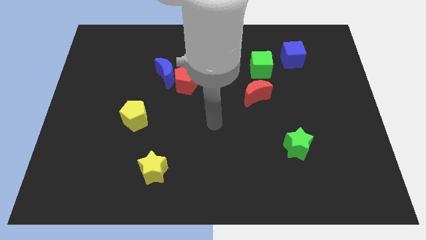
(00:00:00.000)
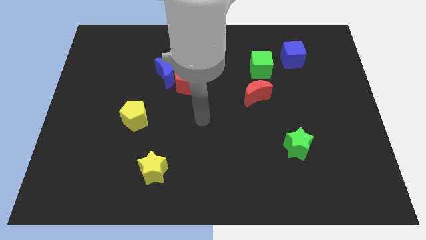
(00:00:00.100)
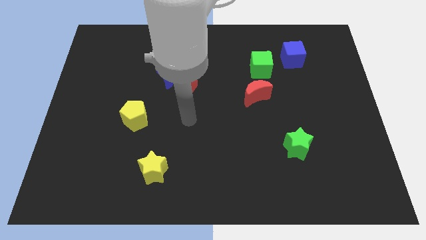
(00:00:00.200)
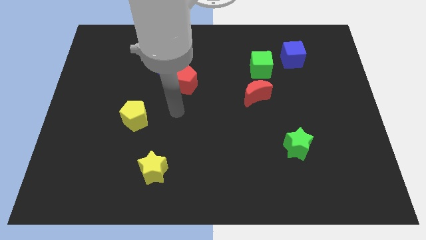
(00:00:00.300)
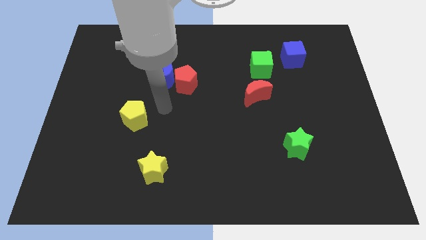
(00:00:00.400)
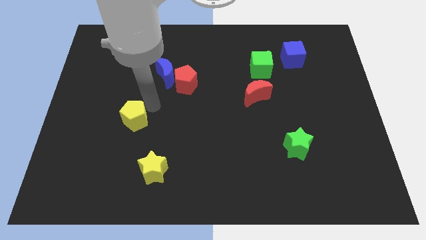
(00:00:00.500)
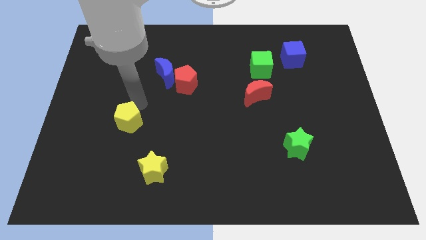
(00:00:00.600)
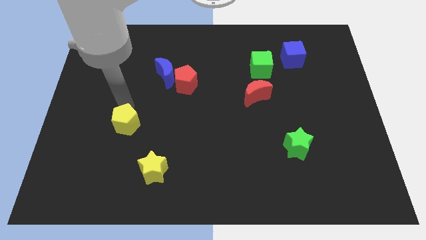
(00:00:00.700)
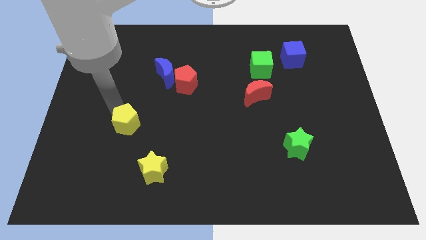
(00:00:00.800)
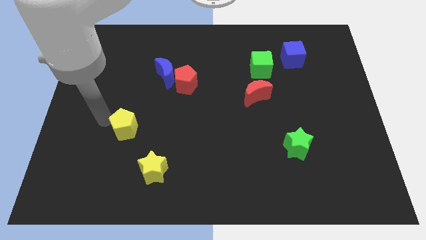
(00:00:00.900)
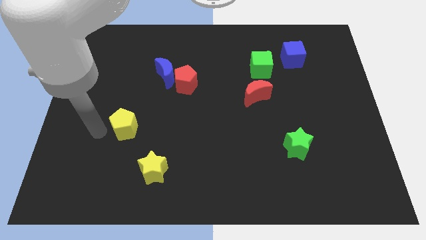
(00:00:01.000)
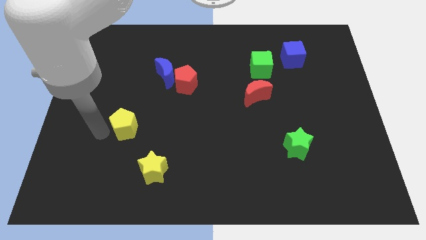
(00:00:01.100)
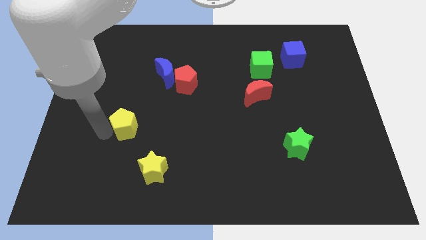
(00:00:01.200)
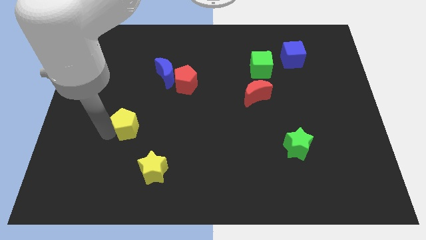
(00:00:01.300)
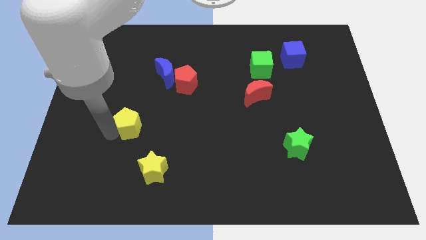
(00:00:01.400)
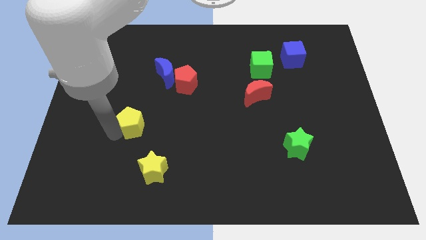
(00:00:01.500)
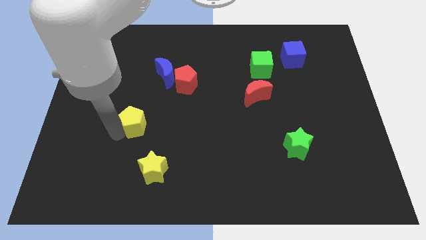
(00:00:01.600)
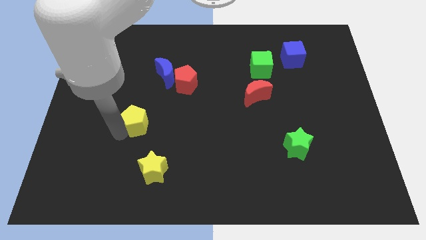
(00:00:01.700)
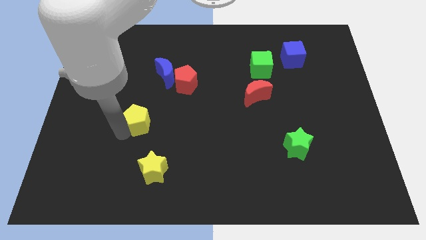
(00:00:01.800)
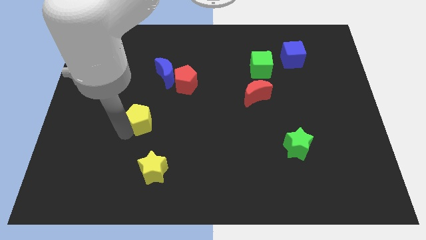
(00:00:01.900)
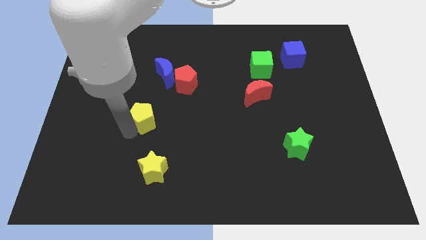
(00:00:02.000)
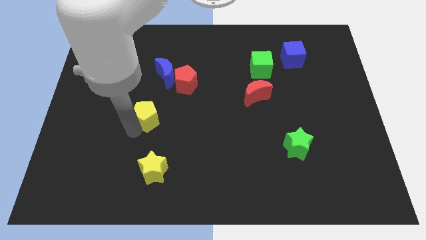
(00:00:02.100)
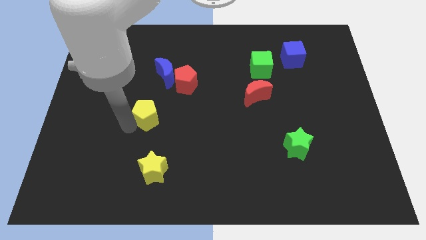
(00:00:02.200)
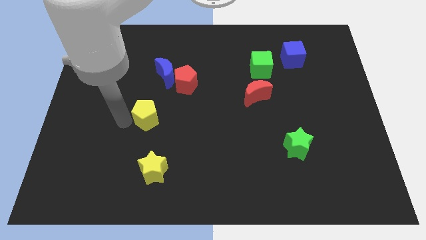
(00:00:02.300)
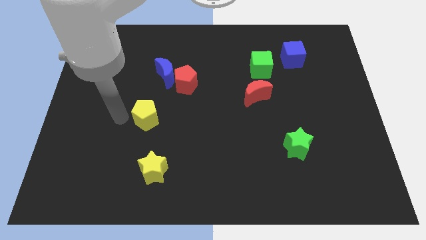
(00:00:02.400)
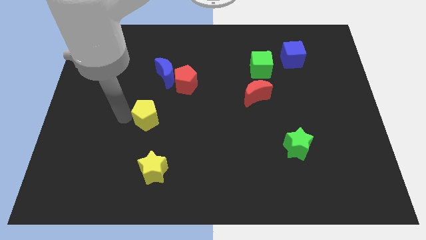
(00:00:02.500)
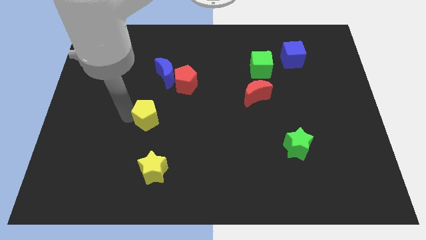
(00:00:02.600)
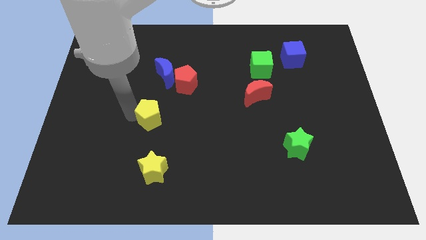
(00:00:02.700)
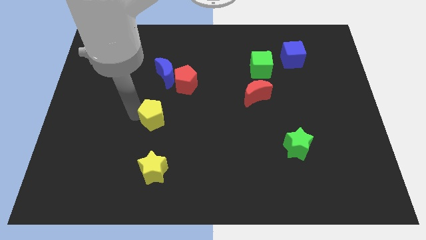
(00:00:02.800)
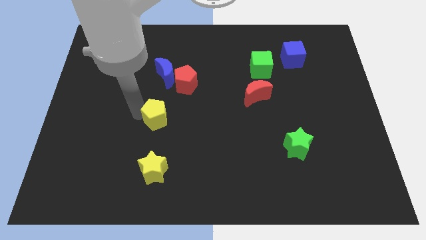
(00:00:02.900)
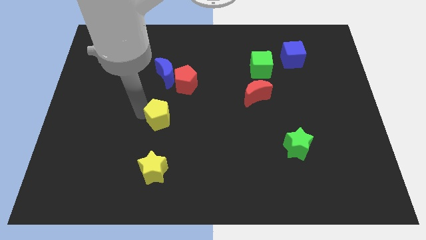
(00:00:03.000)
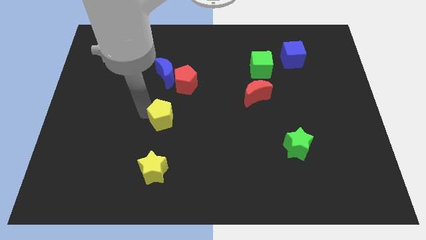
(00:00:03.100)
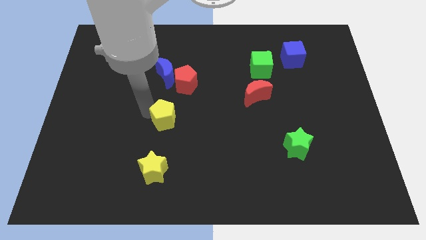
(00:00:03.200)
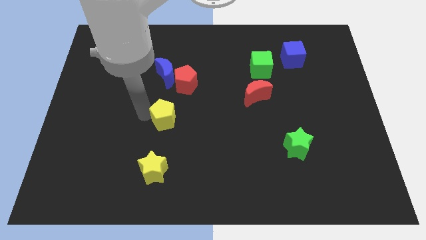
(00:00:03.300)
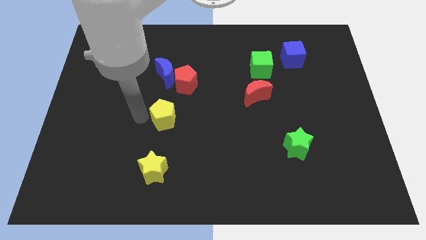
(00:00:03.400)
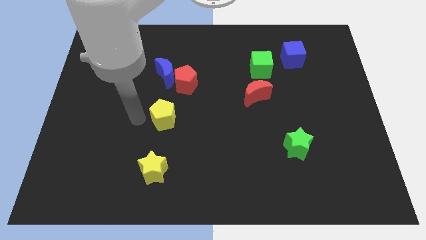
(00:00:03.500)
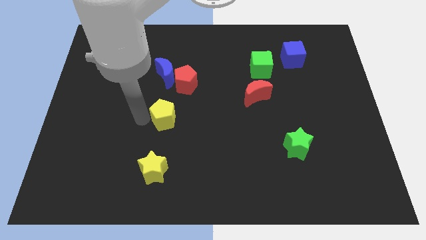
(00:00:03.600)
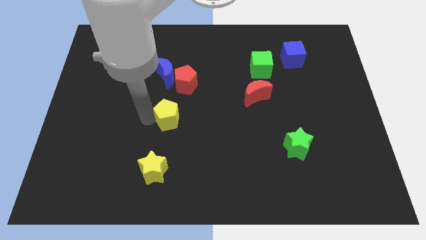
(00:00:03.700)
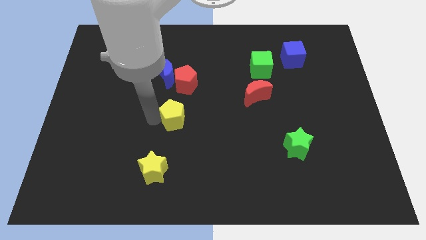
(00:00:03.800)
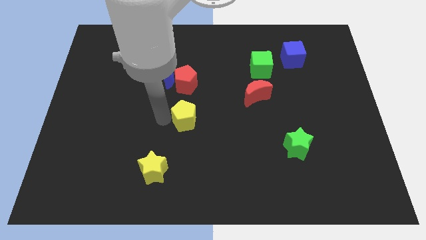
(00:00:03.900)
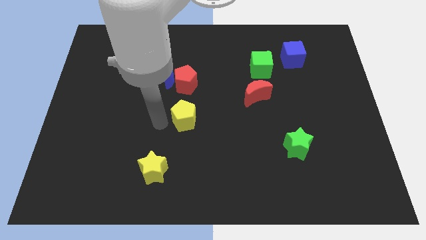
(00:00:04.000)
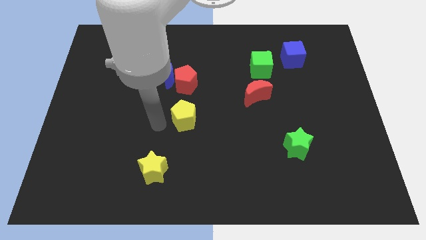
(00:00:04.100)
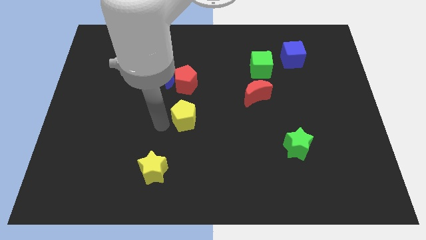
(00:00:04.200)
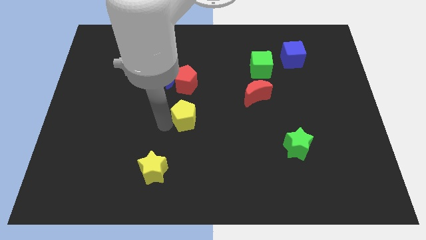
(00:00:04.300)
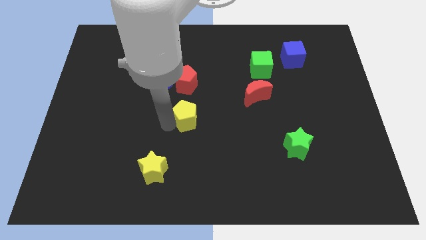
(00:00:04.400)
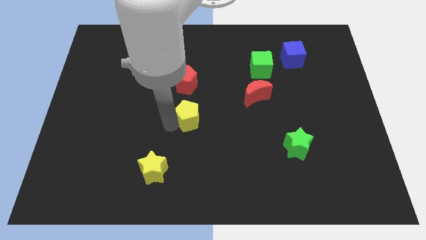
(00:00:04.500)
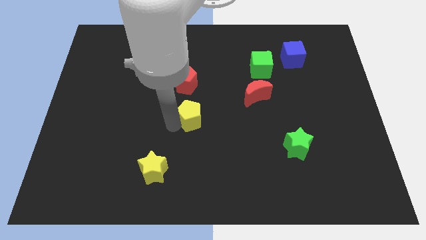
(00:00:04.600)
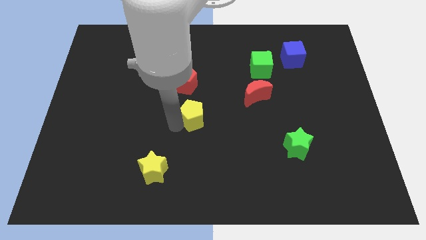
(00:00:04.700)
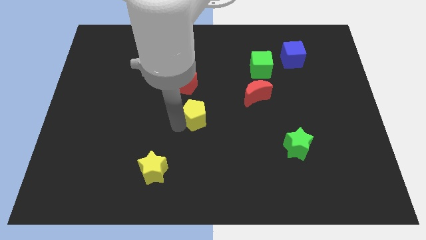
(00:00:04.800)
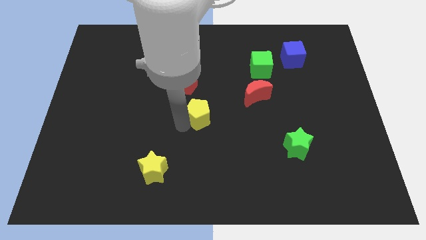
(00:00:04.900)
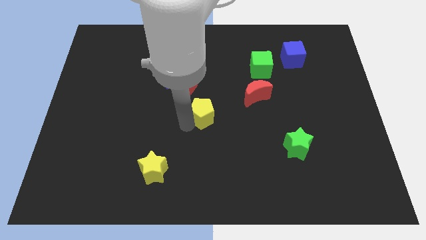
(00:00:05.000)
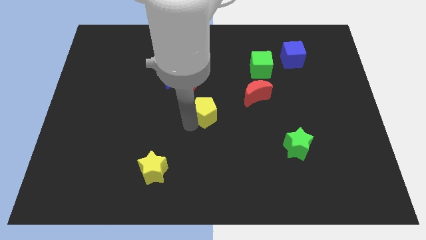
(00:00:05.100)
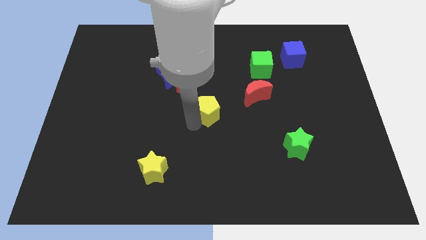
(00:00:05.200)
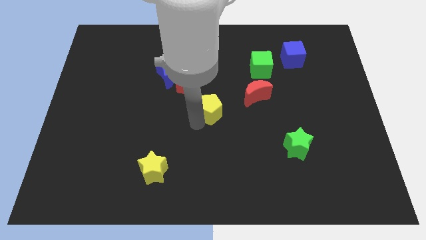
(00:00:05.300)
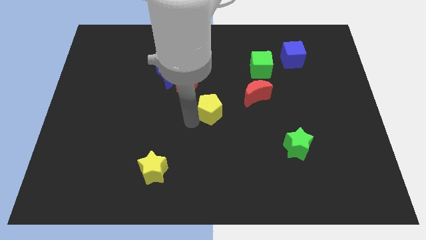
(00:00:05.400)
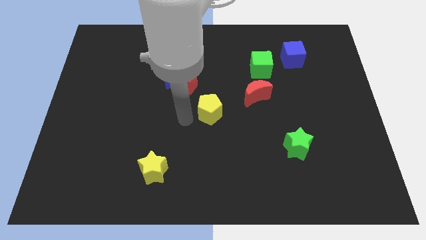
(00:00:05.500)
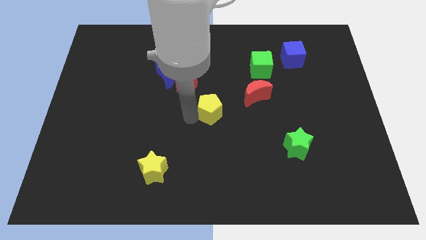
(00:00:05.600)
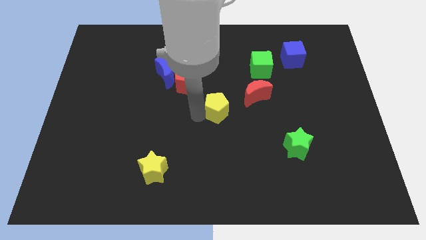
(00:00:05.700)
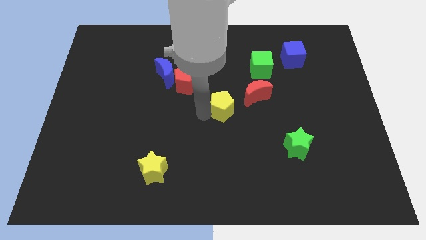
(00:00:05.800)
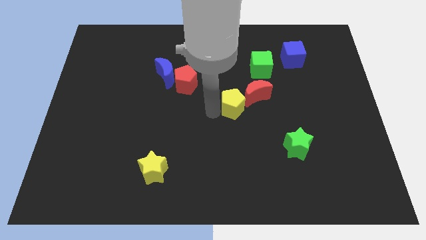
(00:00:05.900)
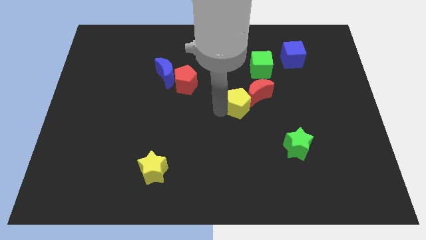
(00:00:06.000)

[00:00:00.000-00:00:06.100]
push the yellow pentagon towards the red moon

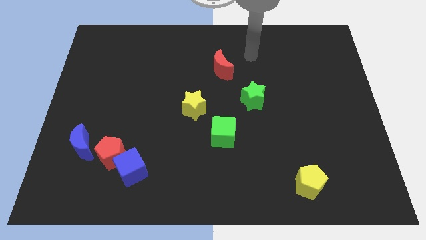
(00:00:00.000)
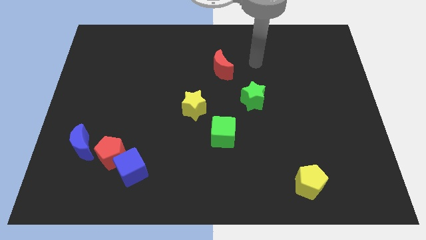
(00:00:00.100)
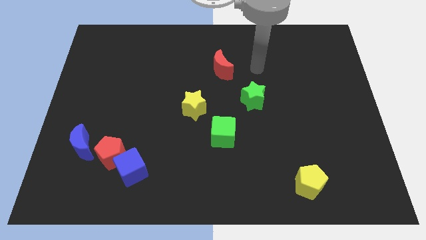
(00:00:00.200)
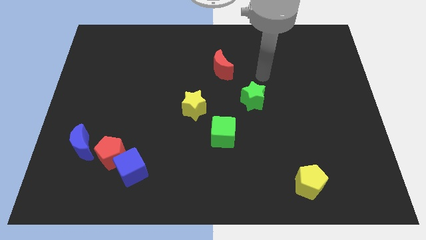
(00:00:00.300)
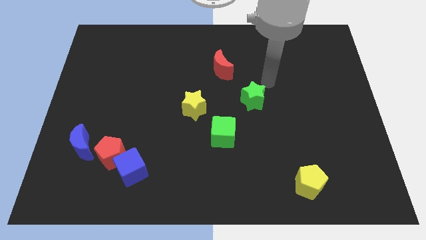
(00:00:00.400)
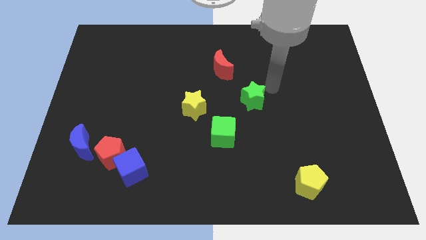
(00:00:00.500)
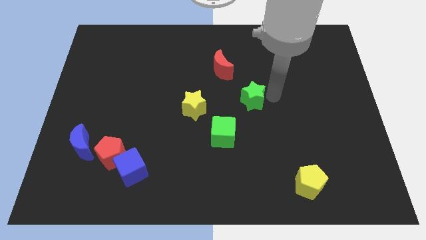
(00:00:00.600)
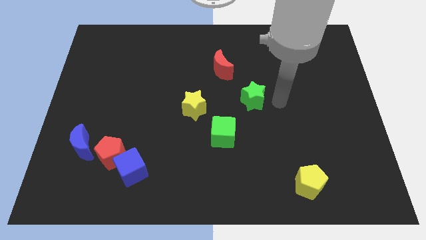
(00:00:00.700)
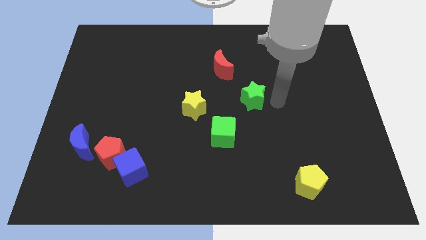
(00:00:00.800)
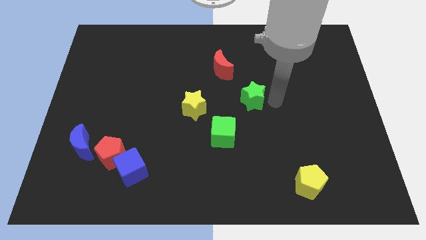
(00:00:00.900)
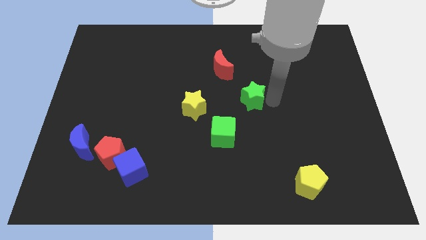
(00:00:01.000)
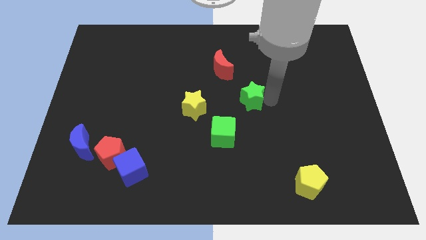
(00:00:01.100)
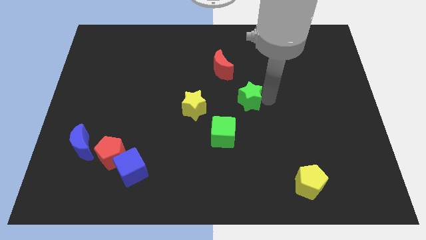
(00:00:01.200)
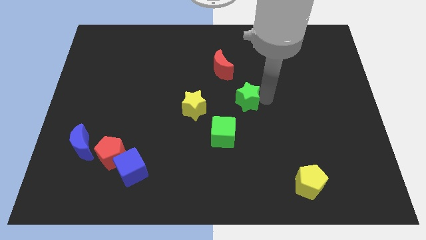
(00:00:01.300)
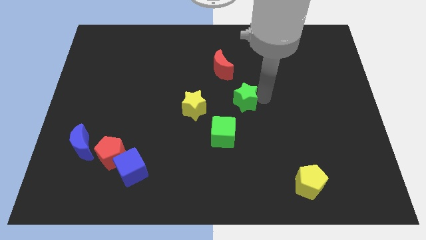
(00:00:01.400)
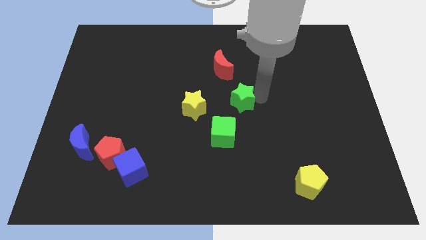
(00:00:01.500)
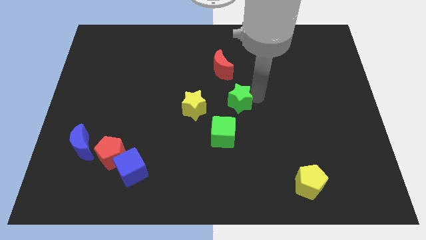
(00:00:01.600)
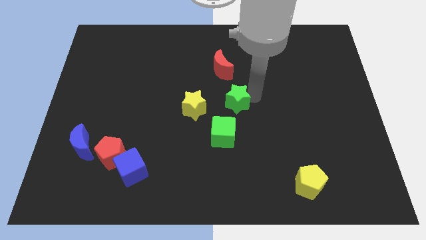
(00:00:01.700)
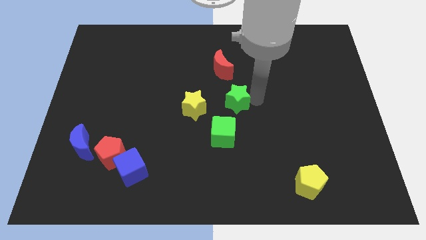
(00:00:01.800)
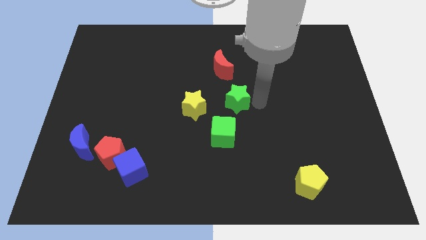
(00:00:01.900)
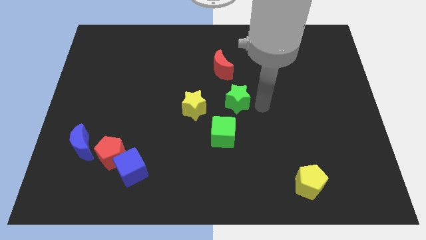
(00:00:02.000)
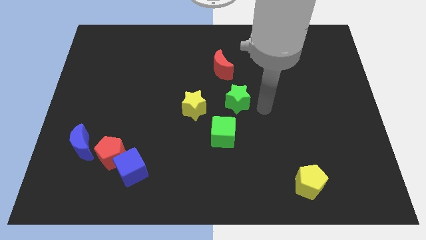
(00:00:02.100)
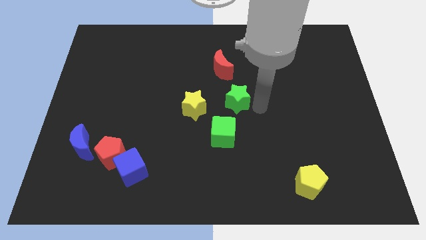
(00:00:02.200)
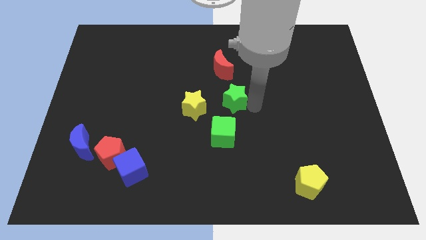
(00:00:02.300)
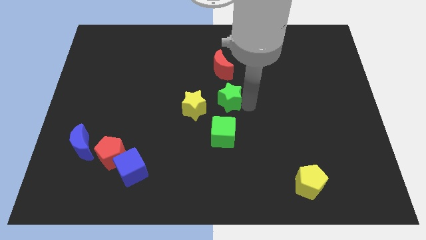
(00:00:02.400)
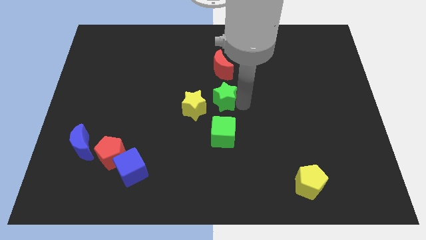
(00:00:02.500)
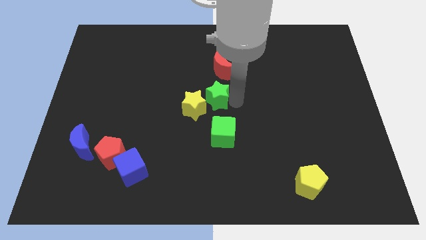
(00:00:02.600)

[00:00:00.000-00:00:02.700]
push the green star towards the yellow star
